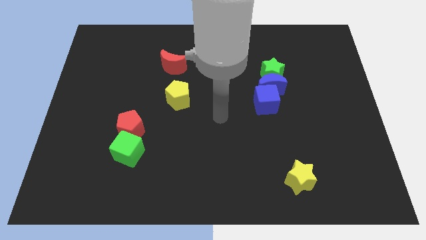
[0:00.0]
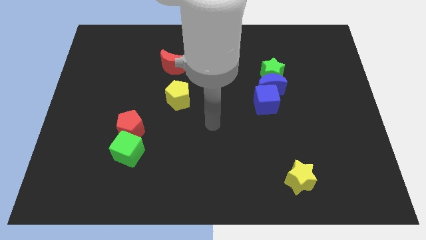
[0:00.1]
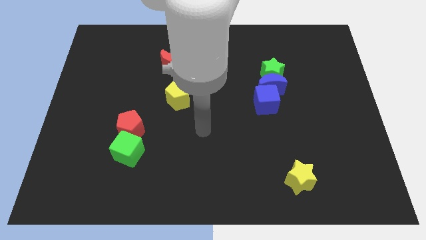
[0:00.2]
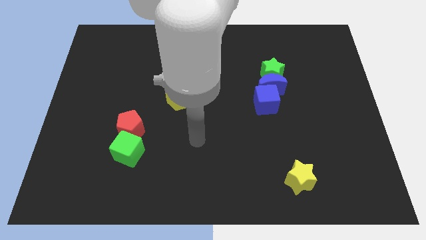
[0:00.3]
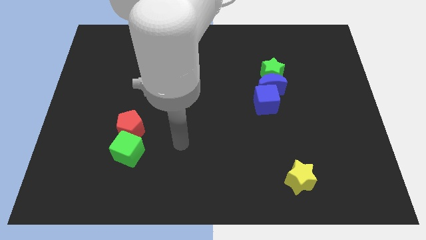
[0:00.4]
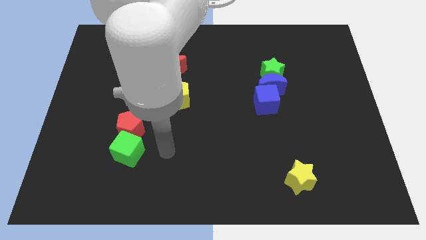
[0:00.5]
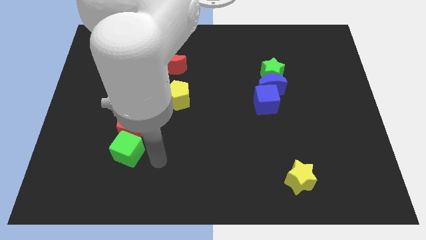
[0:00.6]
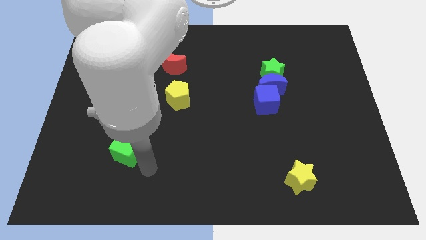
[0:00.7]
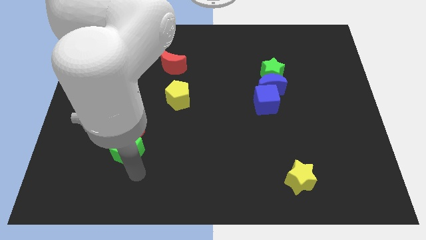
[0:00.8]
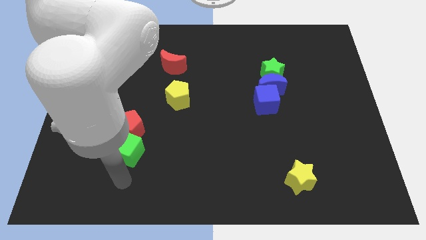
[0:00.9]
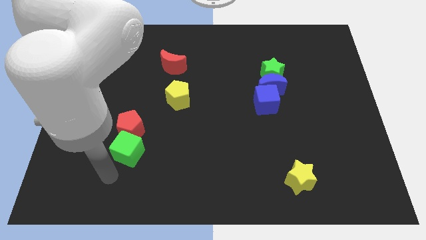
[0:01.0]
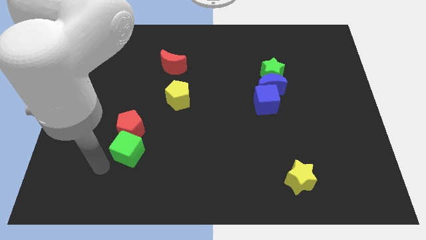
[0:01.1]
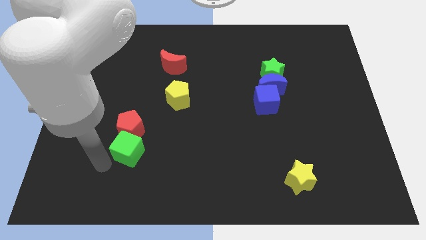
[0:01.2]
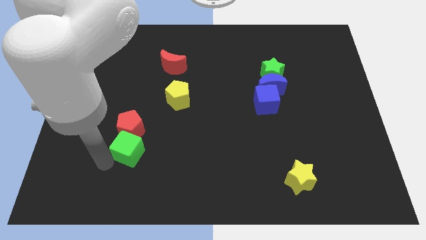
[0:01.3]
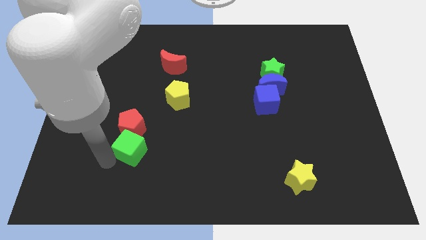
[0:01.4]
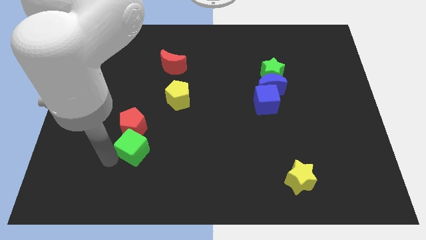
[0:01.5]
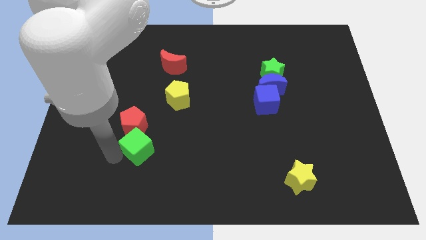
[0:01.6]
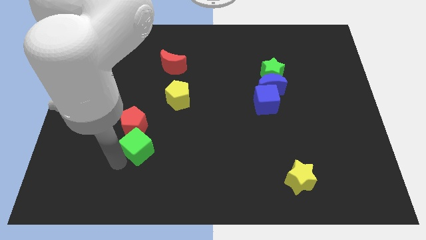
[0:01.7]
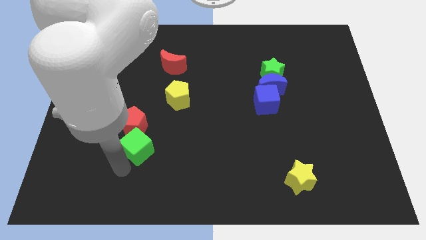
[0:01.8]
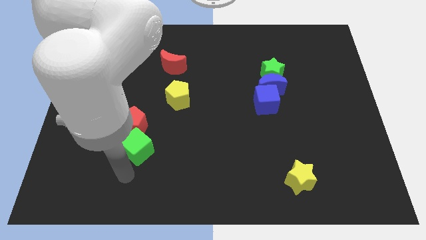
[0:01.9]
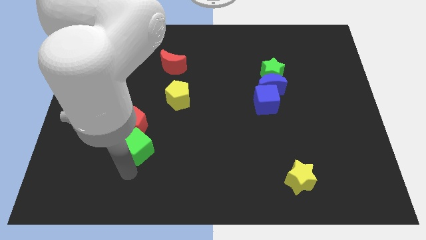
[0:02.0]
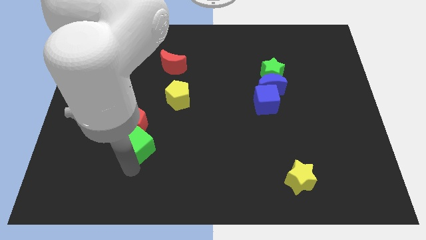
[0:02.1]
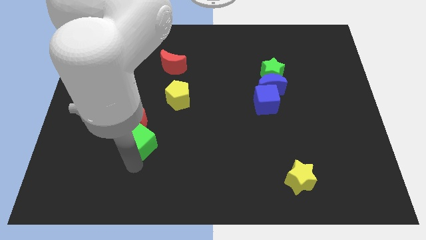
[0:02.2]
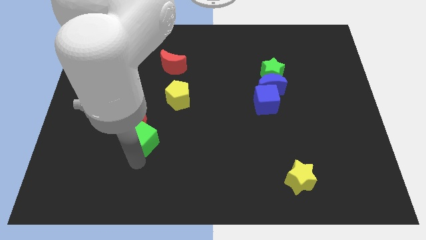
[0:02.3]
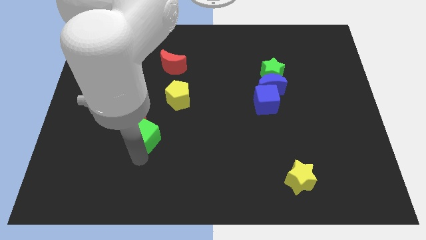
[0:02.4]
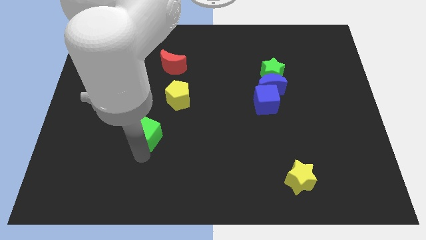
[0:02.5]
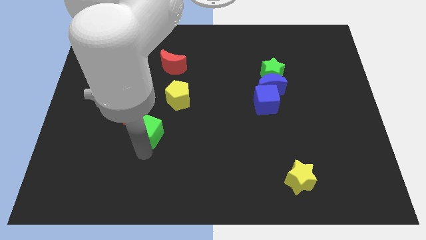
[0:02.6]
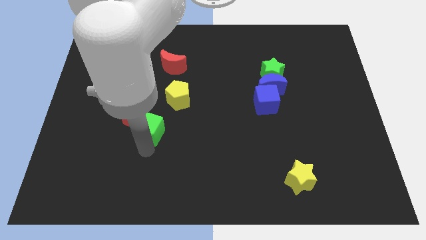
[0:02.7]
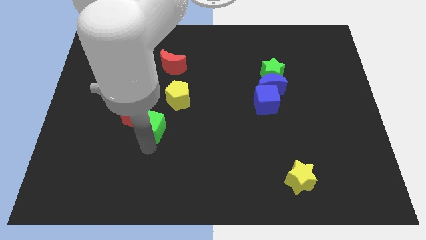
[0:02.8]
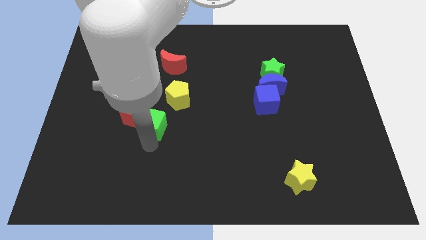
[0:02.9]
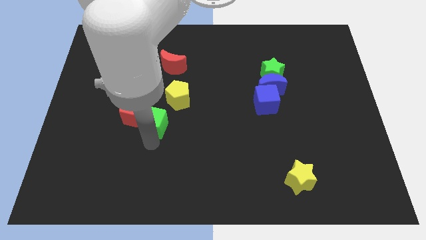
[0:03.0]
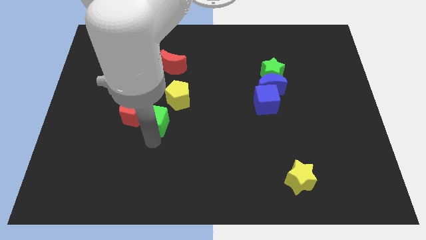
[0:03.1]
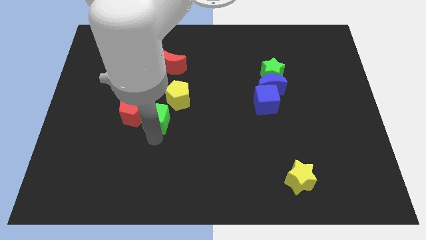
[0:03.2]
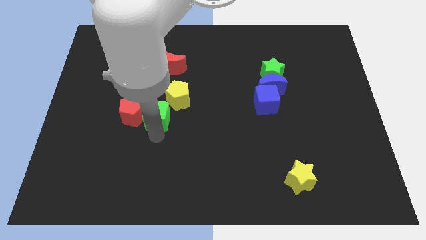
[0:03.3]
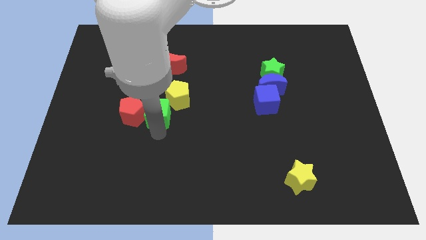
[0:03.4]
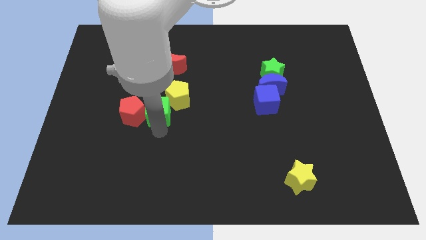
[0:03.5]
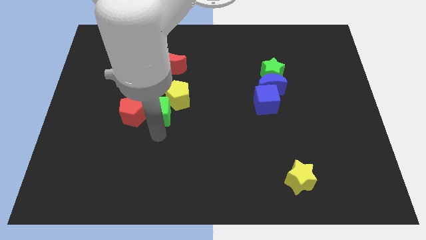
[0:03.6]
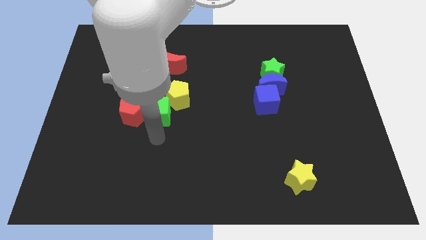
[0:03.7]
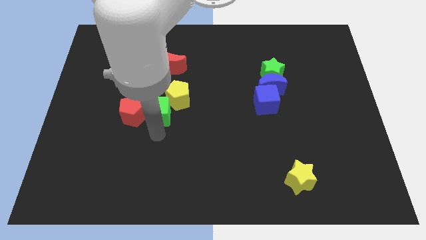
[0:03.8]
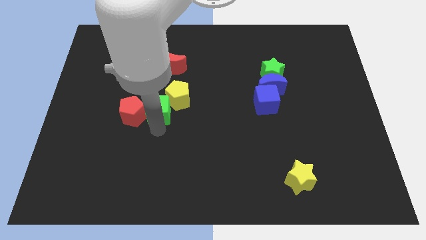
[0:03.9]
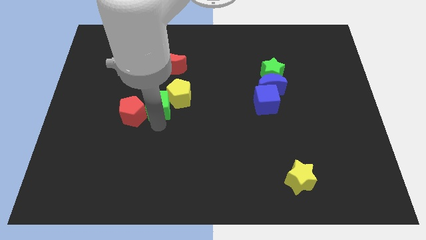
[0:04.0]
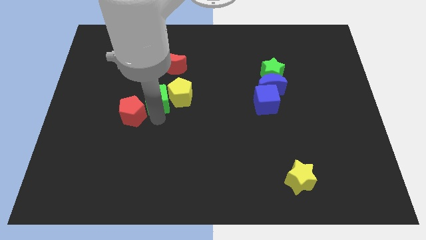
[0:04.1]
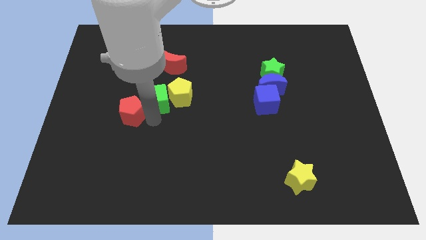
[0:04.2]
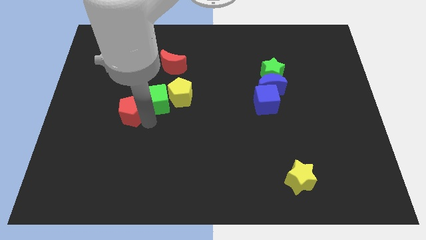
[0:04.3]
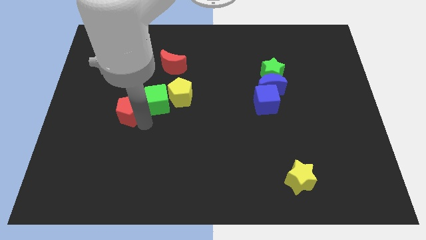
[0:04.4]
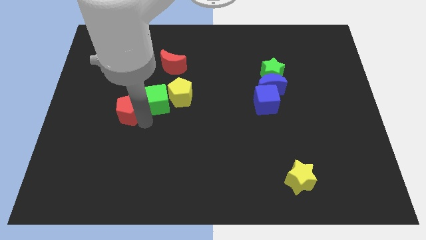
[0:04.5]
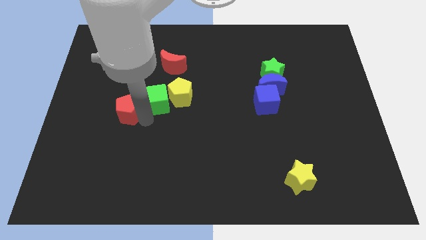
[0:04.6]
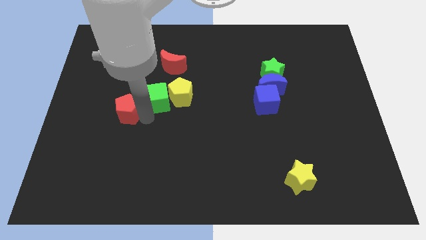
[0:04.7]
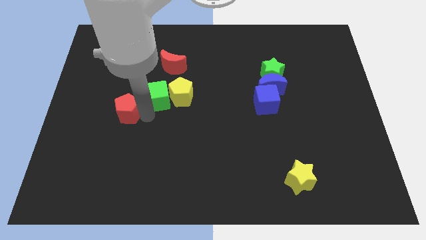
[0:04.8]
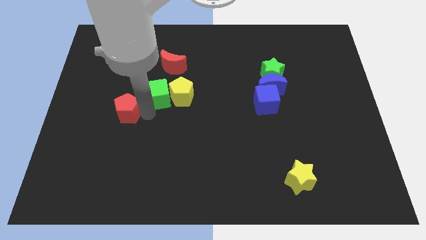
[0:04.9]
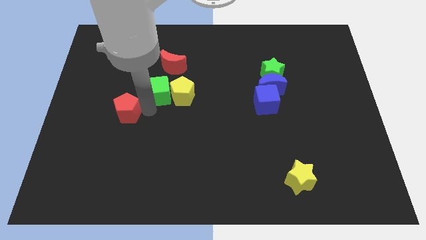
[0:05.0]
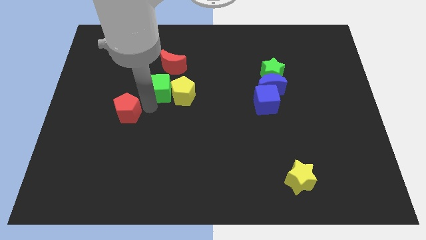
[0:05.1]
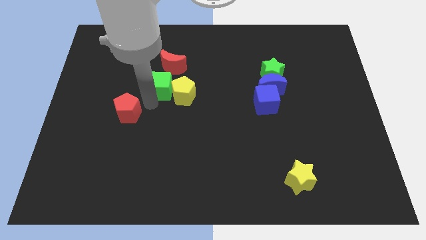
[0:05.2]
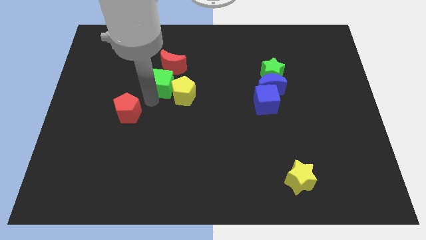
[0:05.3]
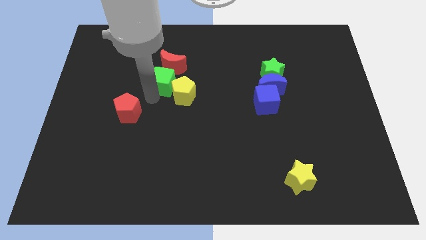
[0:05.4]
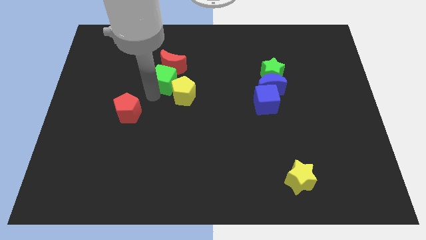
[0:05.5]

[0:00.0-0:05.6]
put the green cube towards the red moon

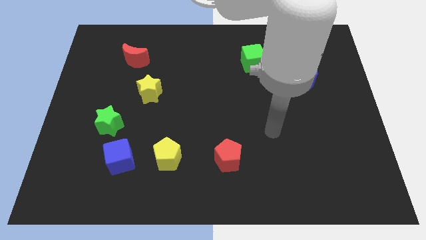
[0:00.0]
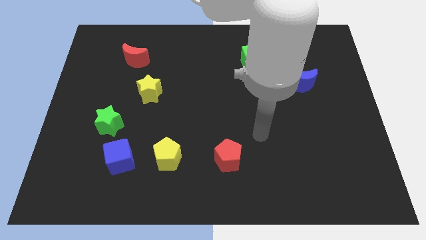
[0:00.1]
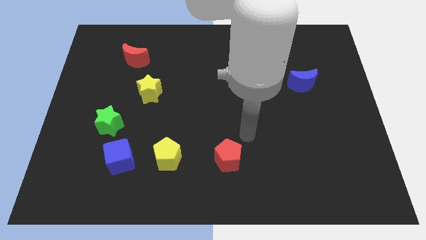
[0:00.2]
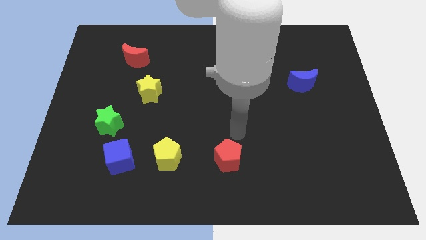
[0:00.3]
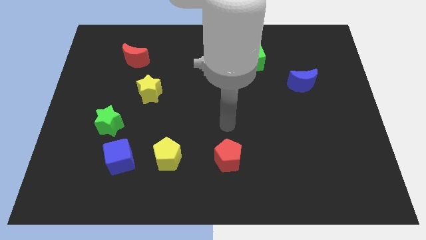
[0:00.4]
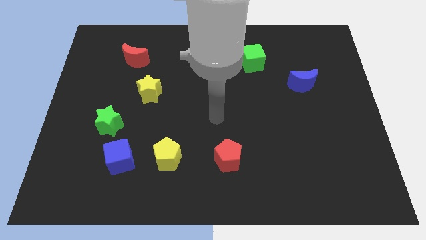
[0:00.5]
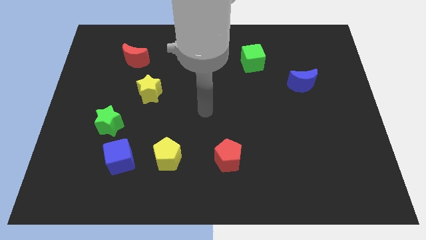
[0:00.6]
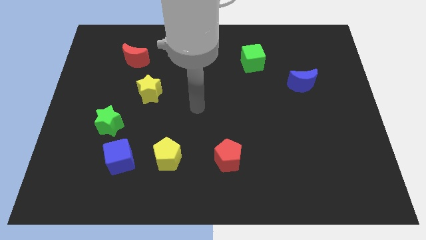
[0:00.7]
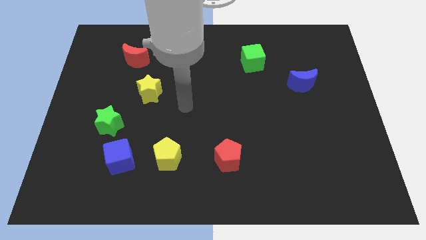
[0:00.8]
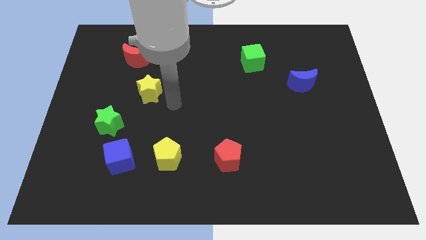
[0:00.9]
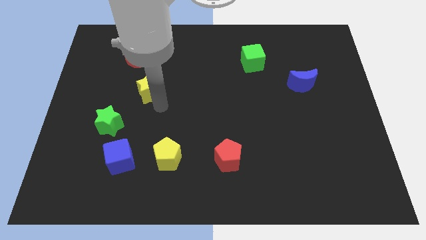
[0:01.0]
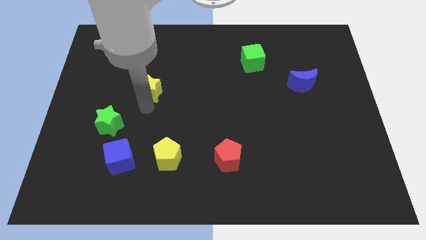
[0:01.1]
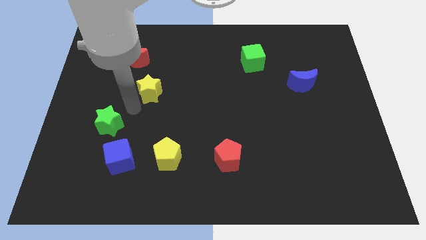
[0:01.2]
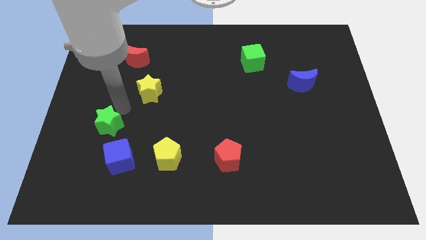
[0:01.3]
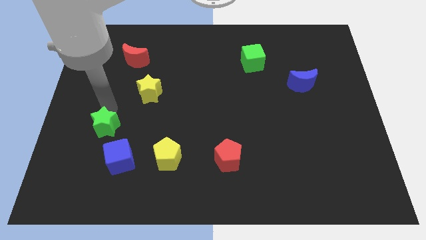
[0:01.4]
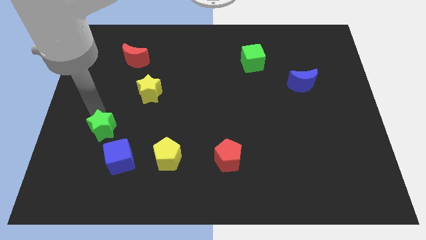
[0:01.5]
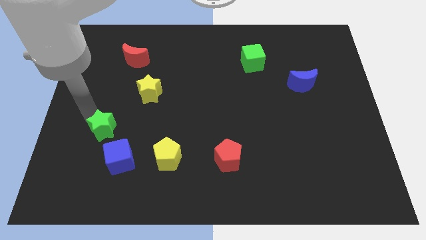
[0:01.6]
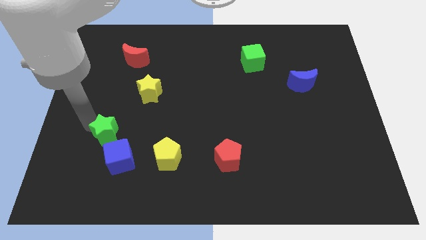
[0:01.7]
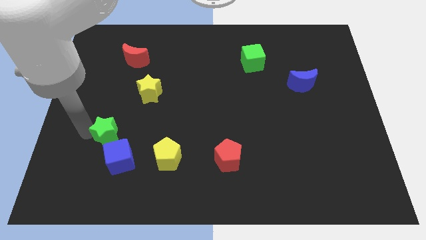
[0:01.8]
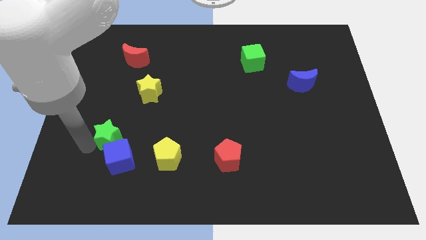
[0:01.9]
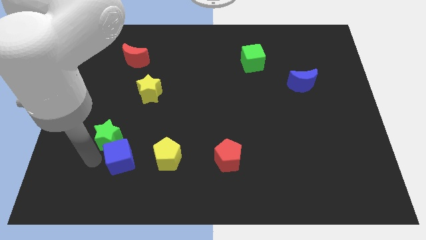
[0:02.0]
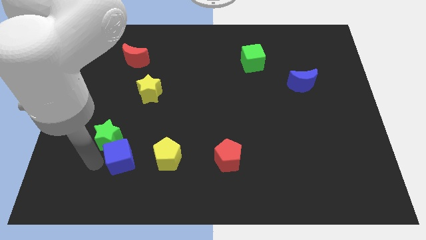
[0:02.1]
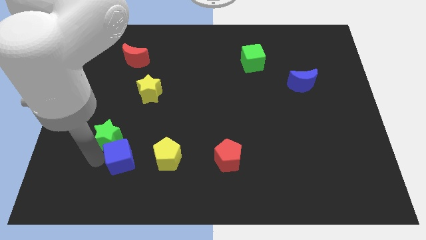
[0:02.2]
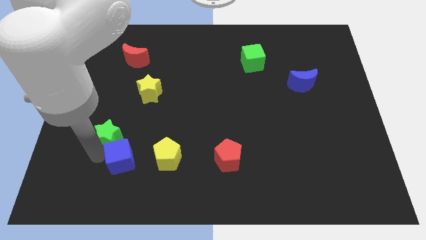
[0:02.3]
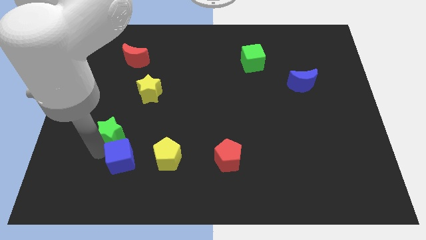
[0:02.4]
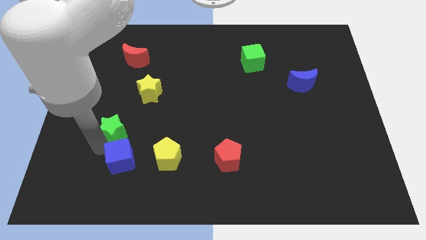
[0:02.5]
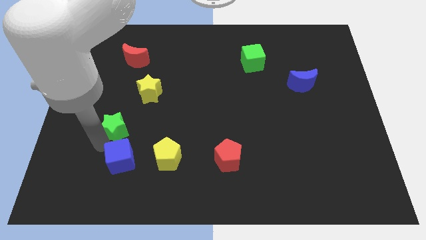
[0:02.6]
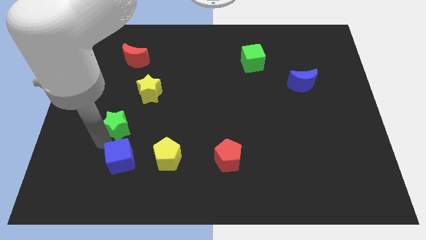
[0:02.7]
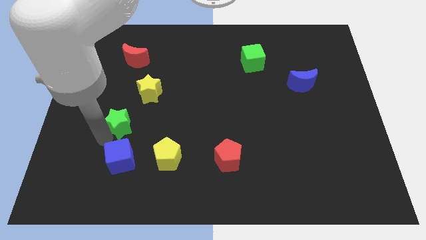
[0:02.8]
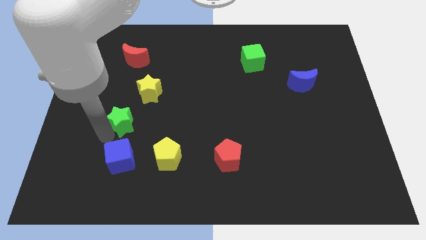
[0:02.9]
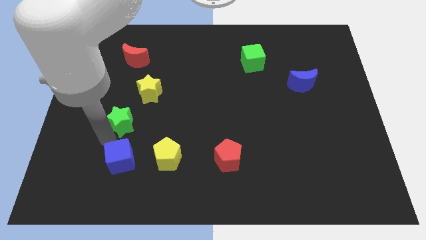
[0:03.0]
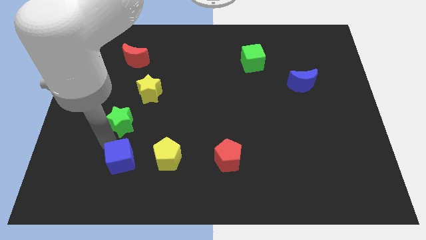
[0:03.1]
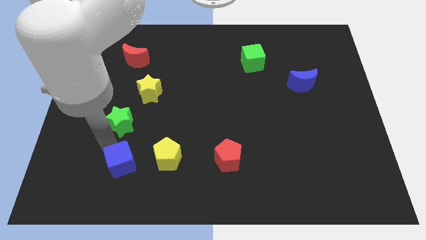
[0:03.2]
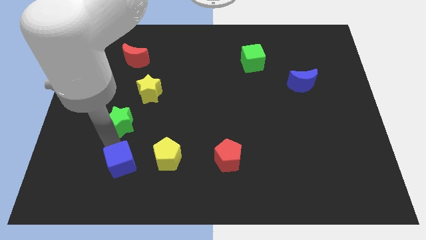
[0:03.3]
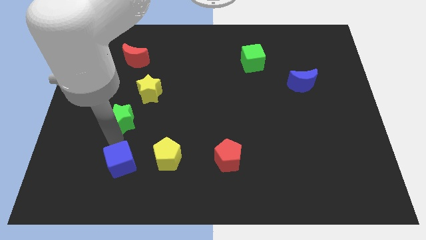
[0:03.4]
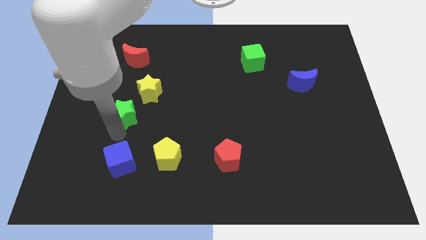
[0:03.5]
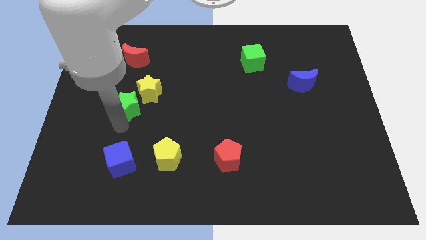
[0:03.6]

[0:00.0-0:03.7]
move the green star next to the yellow star
